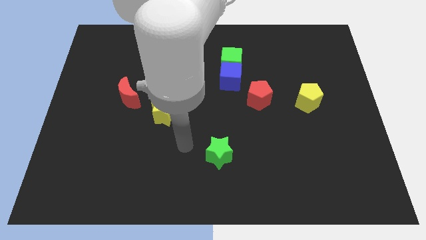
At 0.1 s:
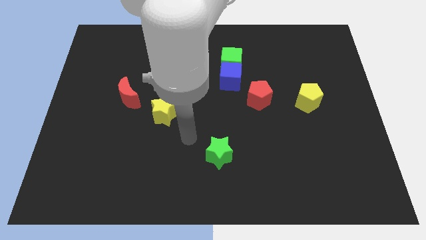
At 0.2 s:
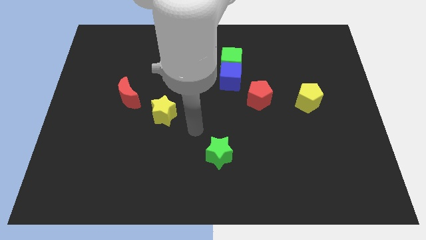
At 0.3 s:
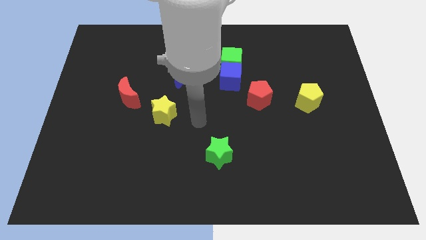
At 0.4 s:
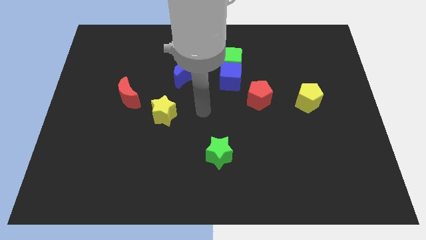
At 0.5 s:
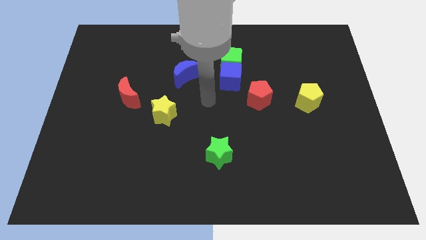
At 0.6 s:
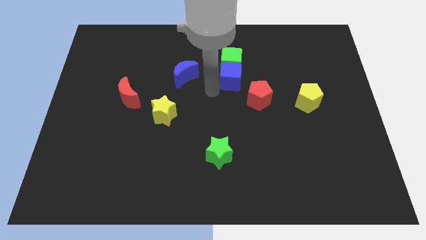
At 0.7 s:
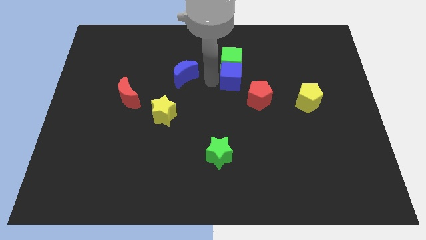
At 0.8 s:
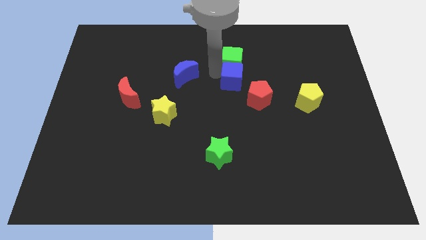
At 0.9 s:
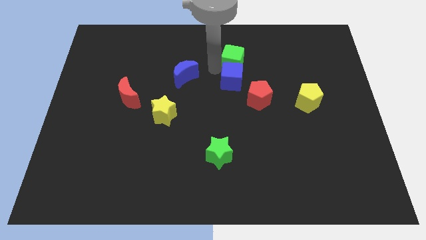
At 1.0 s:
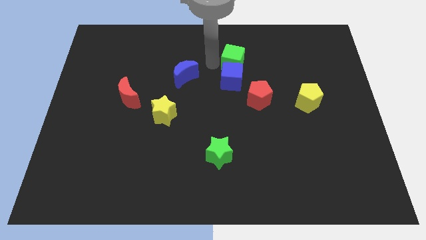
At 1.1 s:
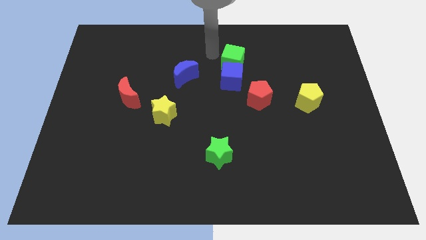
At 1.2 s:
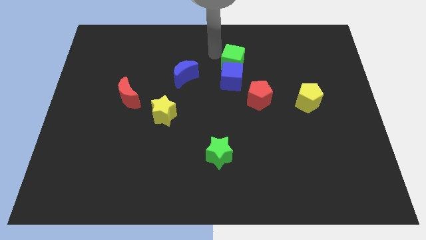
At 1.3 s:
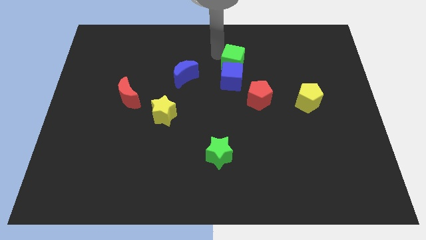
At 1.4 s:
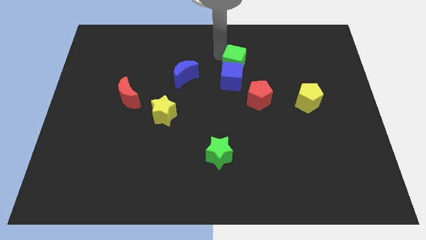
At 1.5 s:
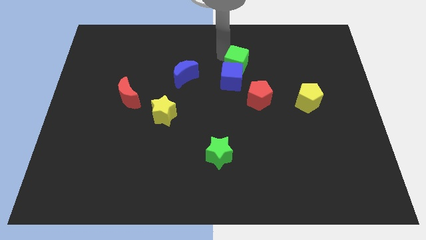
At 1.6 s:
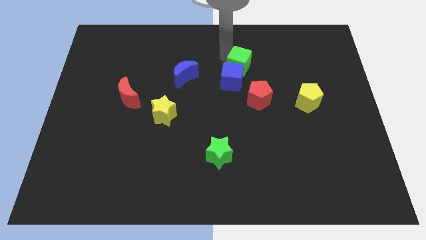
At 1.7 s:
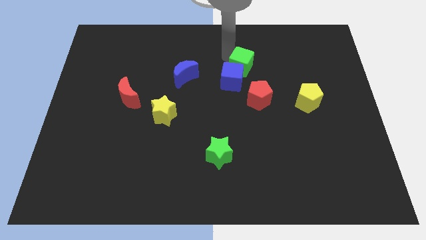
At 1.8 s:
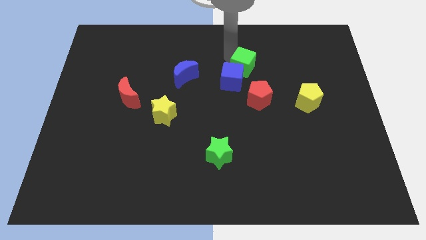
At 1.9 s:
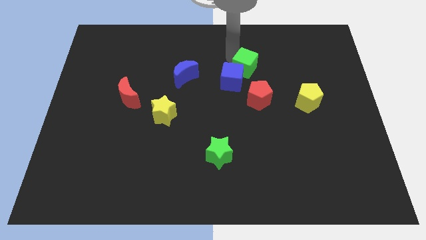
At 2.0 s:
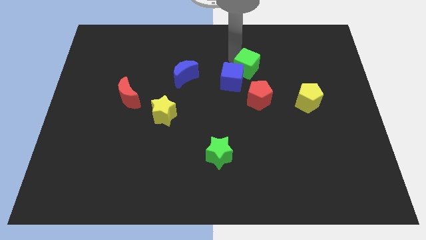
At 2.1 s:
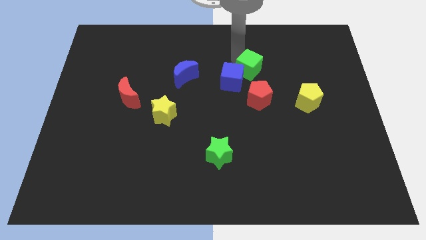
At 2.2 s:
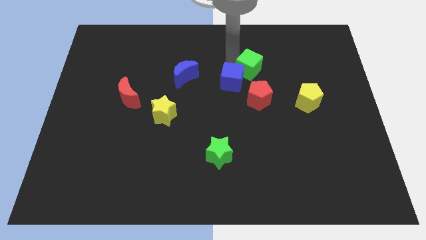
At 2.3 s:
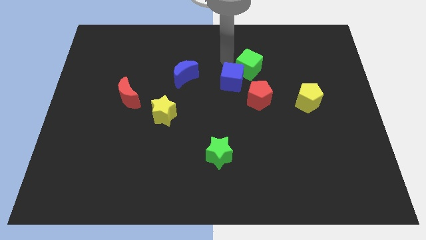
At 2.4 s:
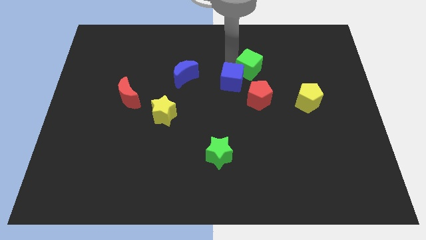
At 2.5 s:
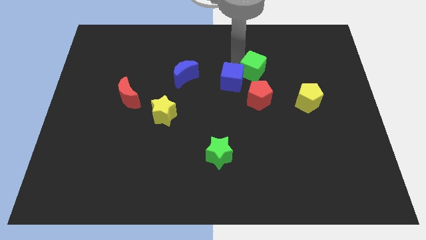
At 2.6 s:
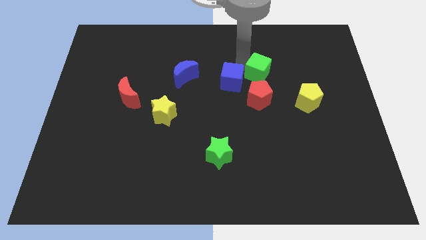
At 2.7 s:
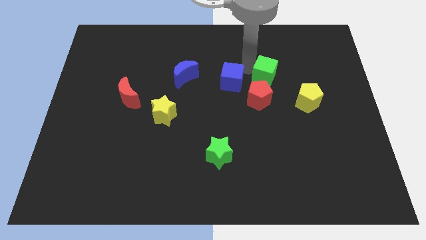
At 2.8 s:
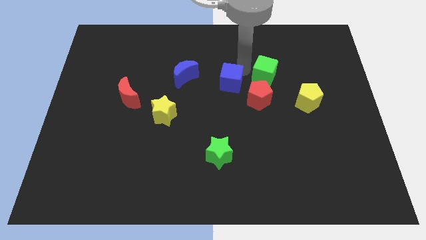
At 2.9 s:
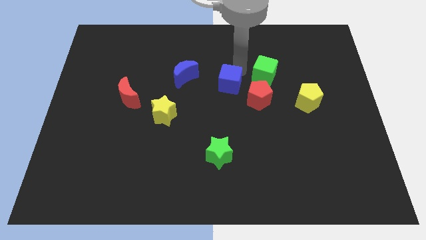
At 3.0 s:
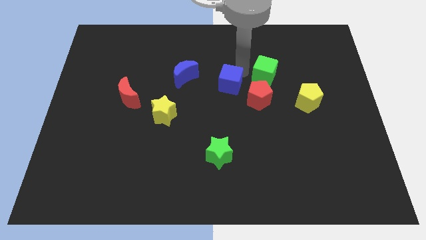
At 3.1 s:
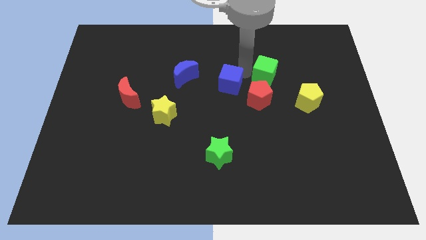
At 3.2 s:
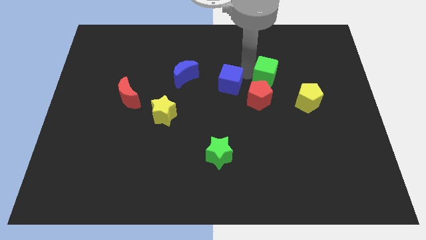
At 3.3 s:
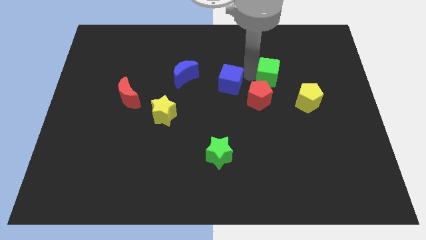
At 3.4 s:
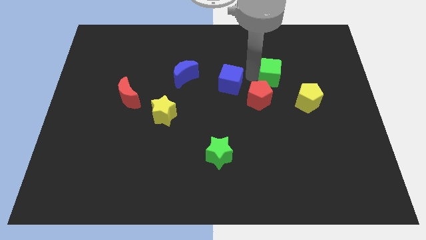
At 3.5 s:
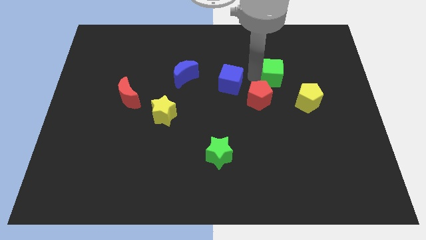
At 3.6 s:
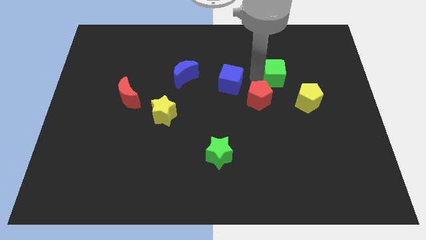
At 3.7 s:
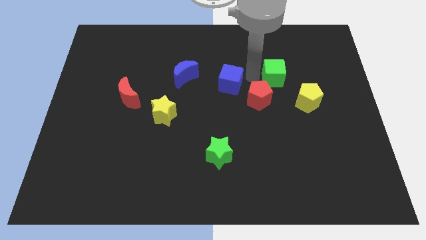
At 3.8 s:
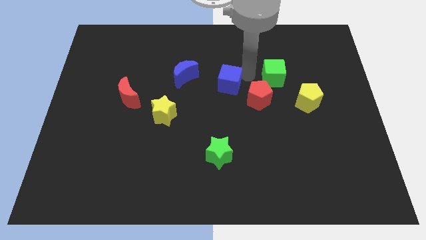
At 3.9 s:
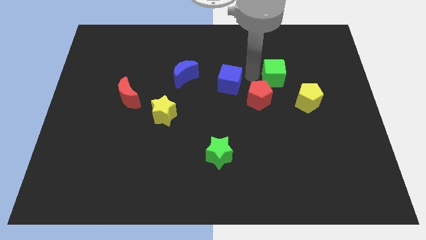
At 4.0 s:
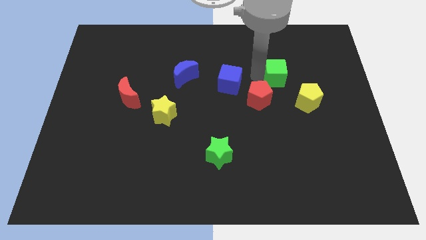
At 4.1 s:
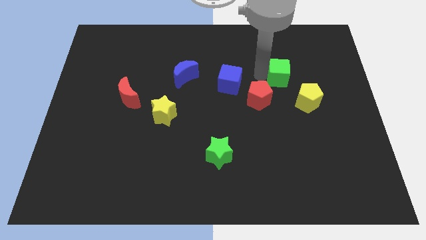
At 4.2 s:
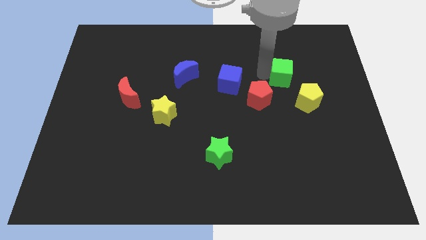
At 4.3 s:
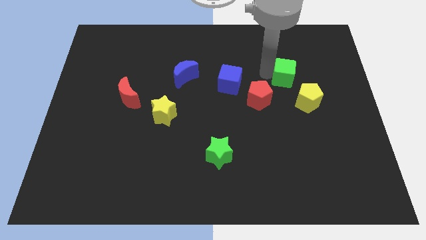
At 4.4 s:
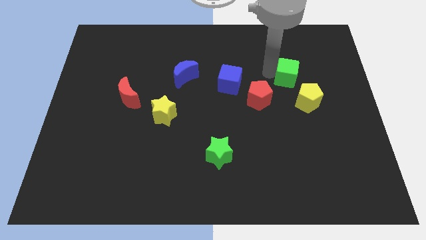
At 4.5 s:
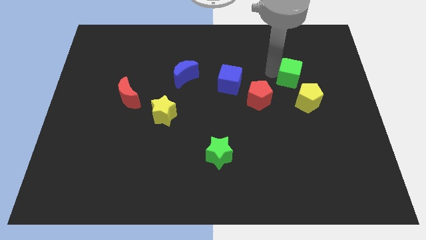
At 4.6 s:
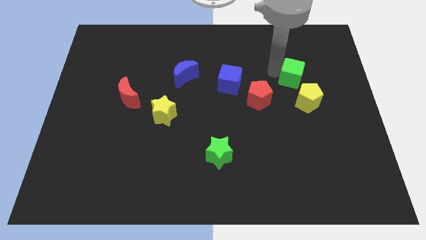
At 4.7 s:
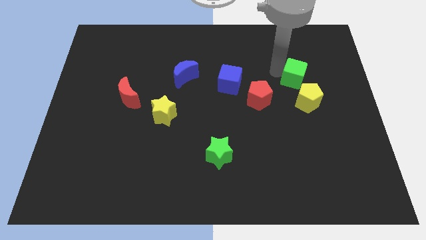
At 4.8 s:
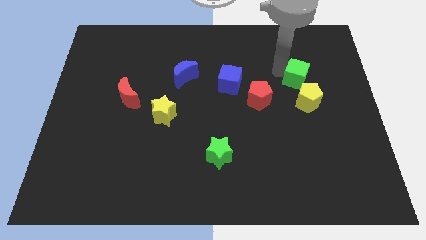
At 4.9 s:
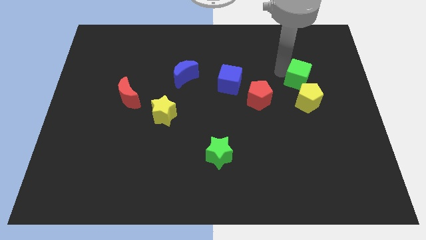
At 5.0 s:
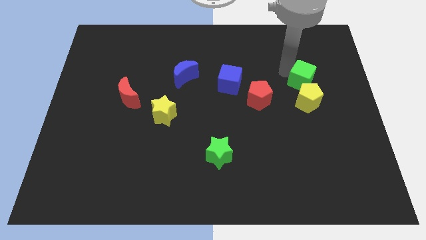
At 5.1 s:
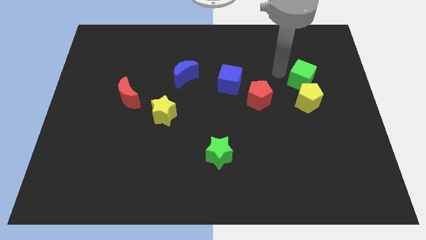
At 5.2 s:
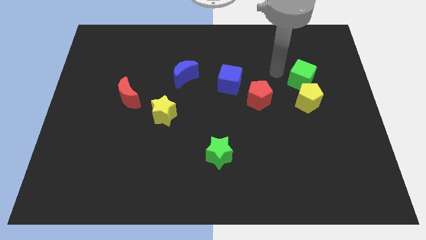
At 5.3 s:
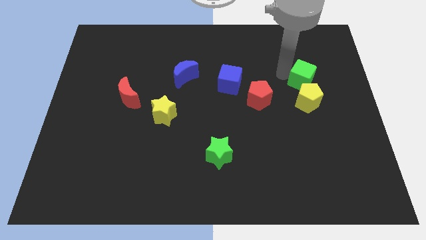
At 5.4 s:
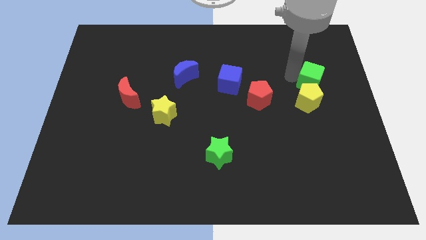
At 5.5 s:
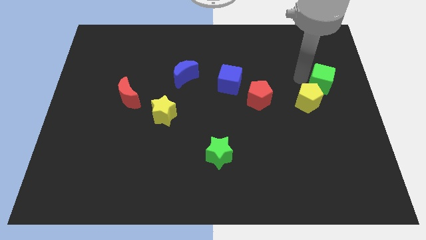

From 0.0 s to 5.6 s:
push the green cube to the right side of the board

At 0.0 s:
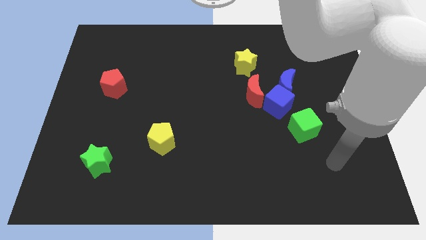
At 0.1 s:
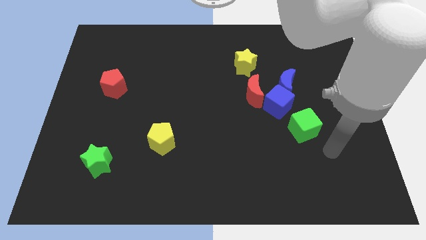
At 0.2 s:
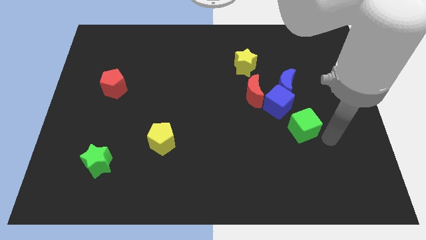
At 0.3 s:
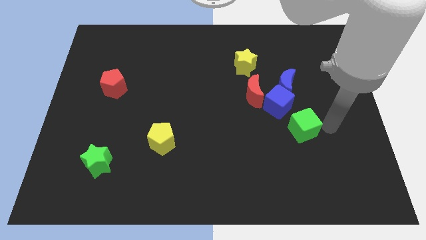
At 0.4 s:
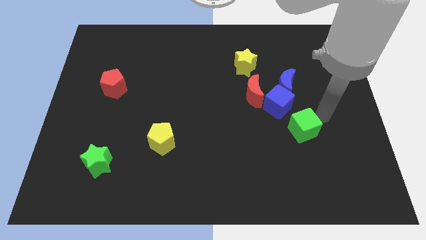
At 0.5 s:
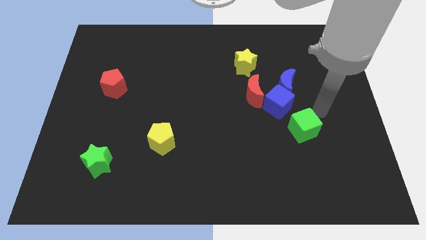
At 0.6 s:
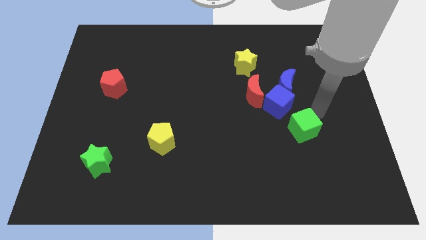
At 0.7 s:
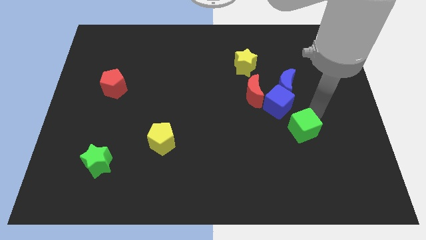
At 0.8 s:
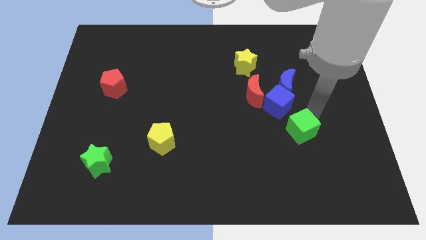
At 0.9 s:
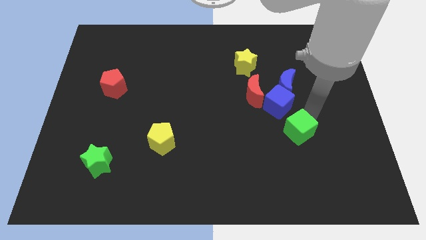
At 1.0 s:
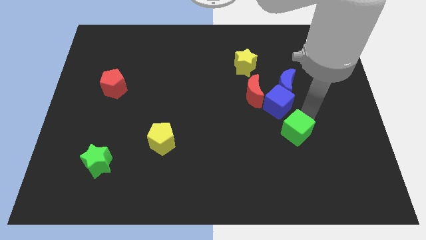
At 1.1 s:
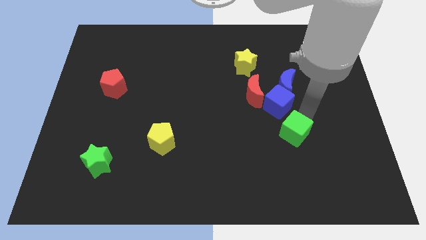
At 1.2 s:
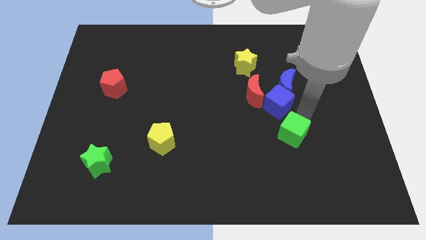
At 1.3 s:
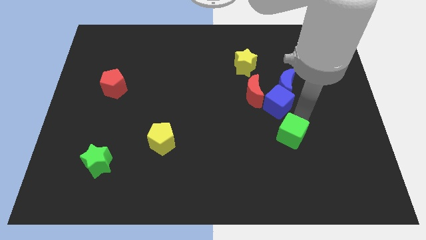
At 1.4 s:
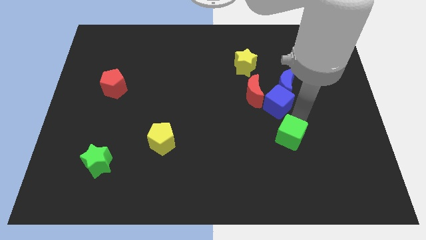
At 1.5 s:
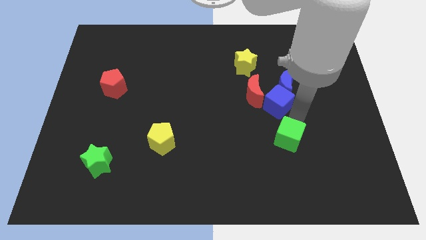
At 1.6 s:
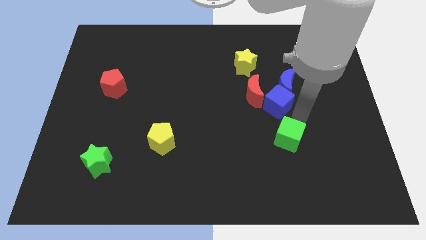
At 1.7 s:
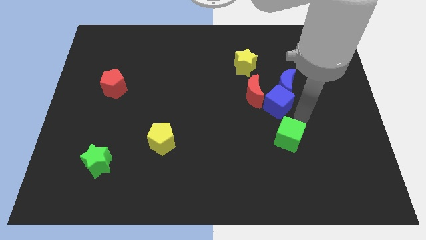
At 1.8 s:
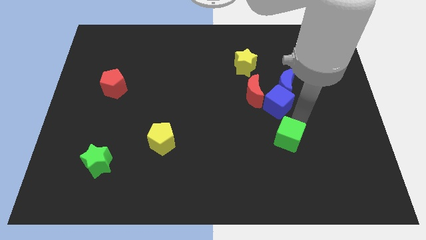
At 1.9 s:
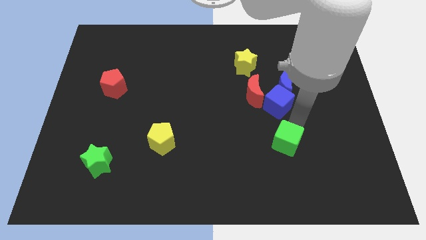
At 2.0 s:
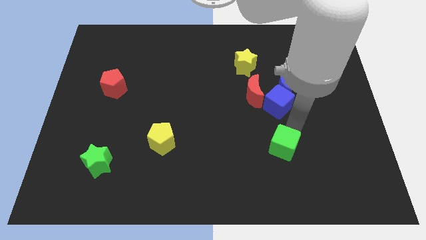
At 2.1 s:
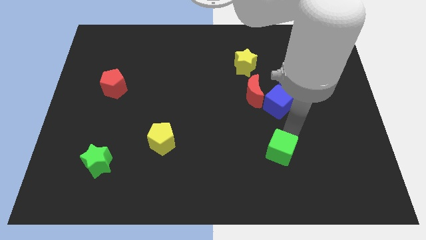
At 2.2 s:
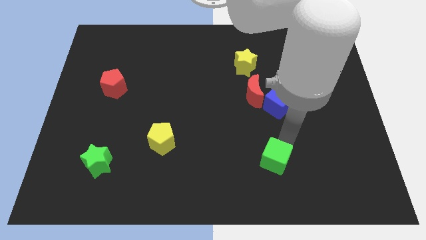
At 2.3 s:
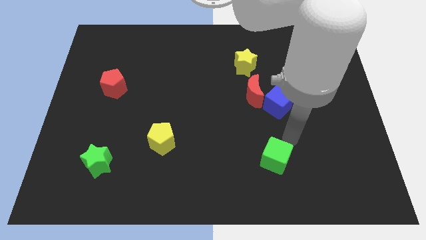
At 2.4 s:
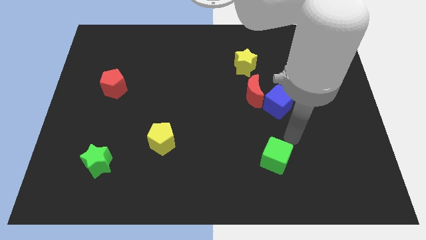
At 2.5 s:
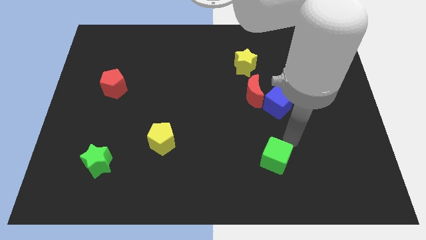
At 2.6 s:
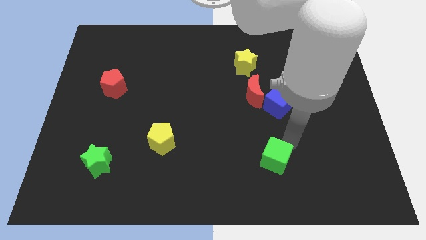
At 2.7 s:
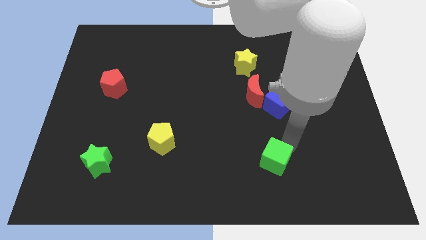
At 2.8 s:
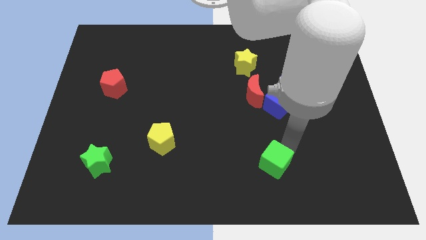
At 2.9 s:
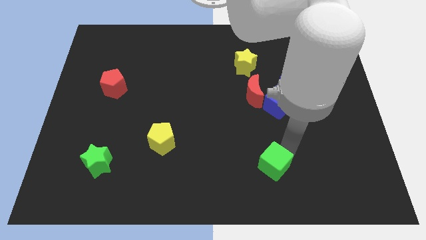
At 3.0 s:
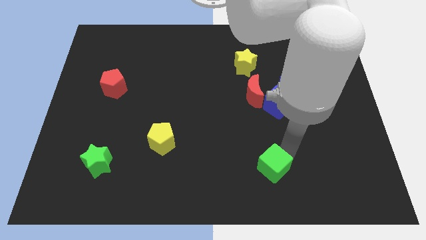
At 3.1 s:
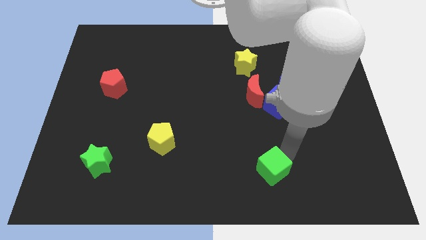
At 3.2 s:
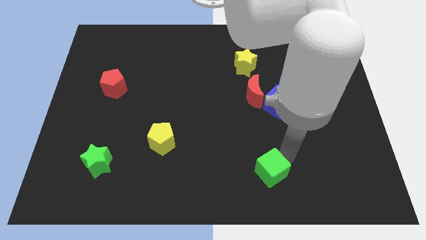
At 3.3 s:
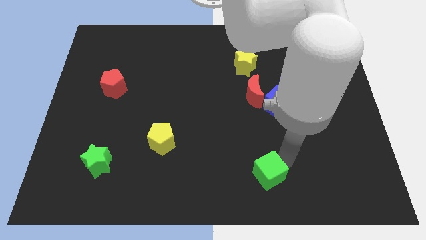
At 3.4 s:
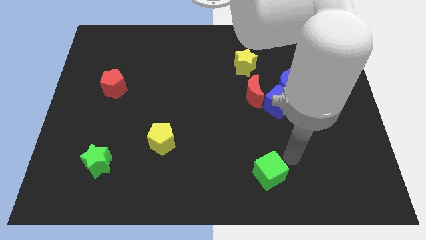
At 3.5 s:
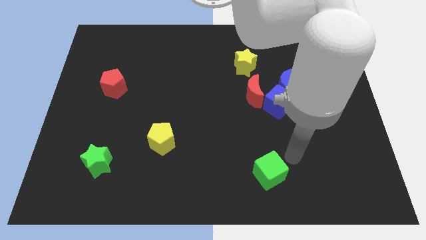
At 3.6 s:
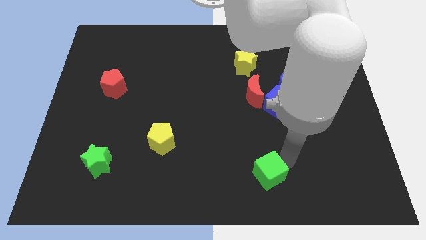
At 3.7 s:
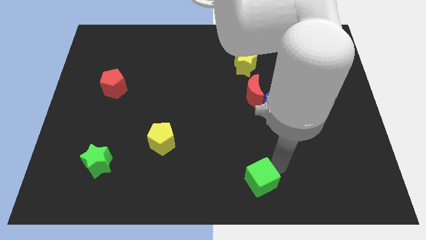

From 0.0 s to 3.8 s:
move the green cube to the bottom
